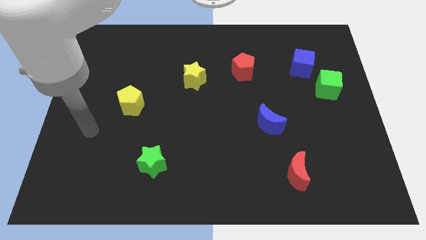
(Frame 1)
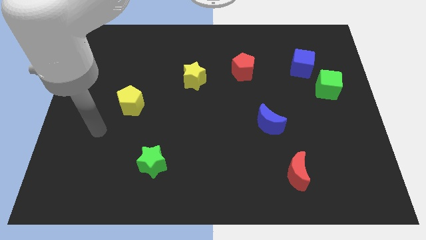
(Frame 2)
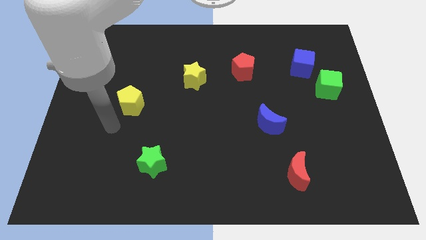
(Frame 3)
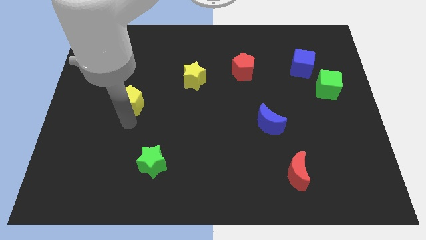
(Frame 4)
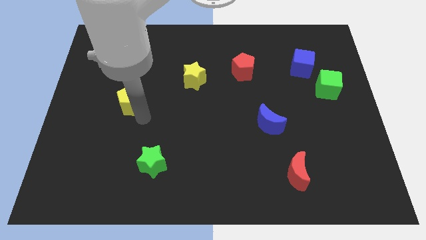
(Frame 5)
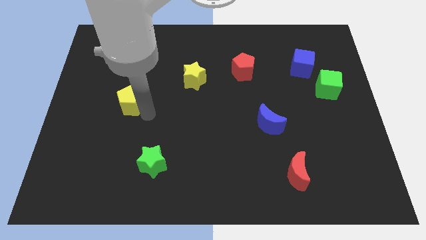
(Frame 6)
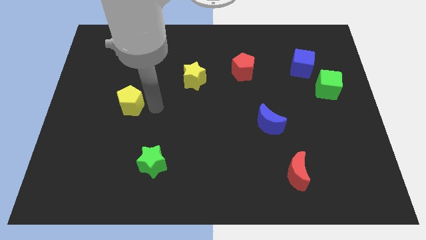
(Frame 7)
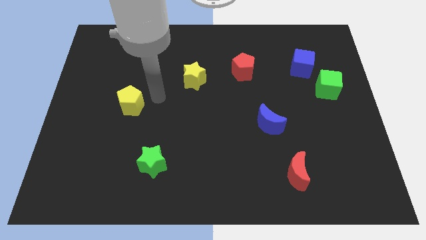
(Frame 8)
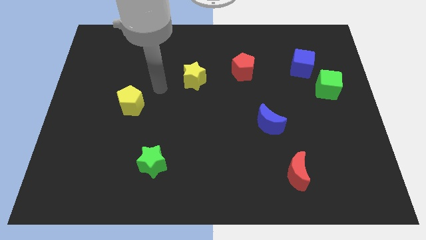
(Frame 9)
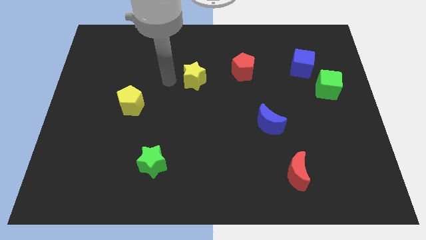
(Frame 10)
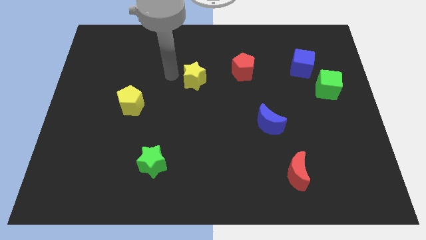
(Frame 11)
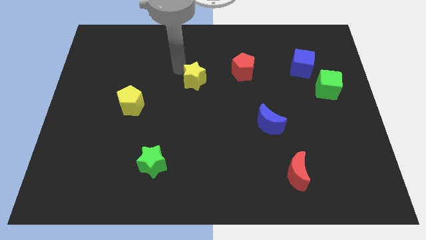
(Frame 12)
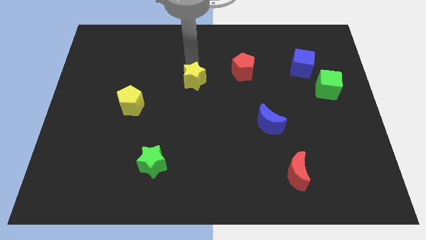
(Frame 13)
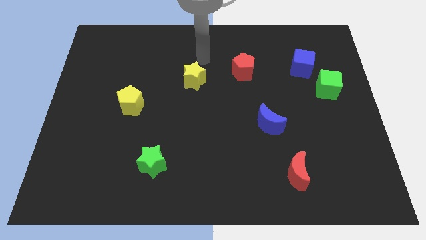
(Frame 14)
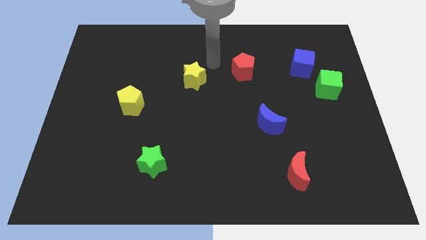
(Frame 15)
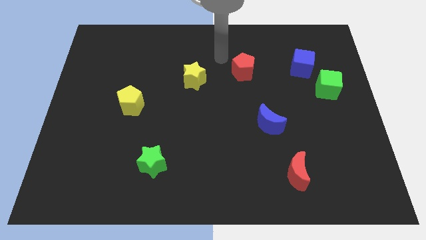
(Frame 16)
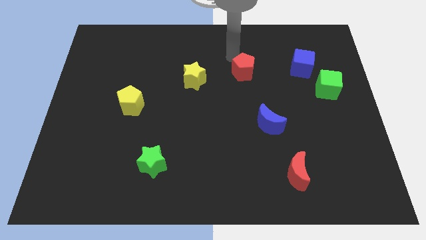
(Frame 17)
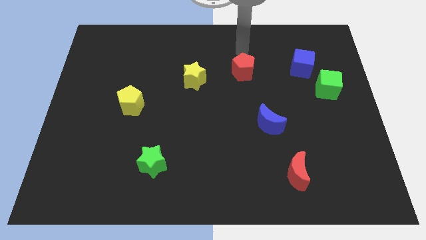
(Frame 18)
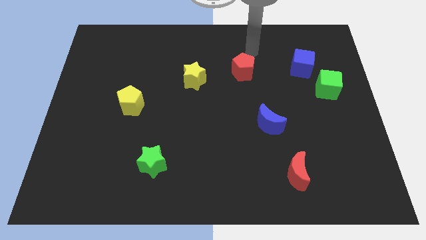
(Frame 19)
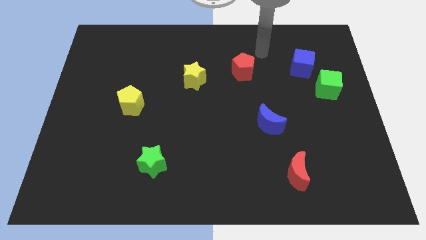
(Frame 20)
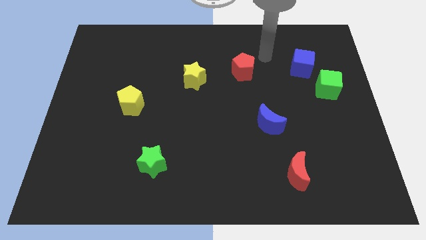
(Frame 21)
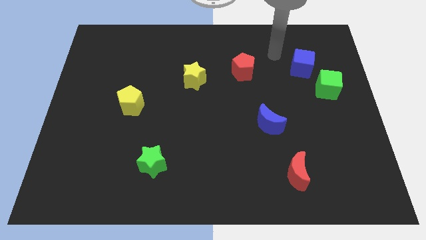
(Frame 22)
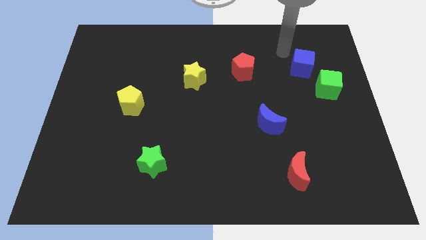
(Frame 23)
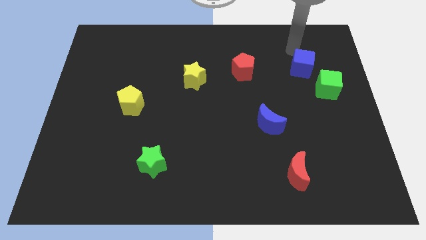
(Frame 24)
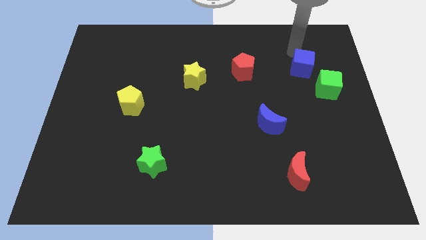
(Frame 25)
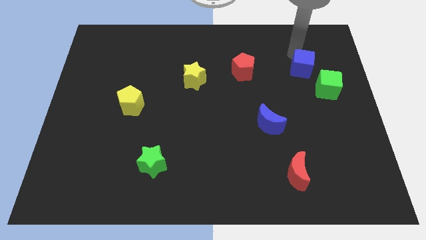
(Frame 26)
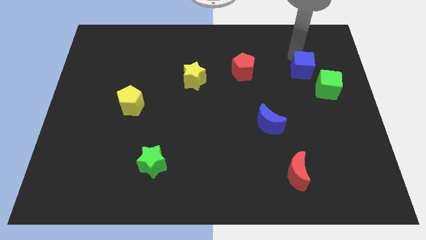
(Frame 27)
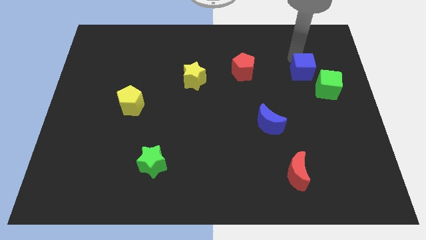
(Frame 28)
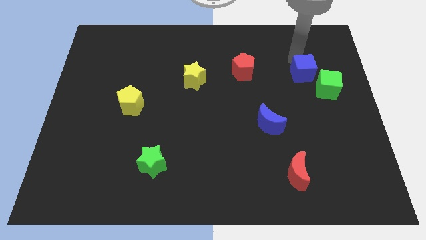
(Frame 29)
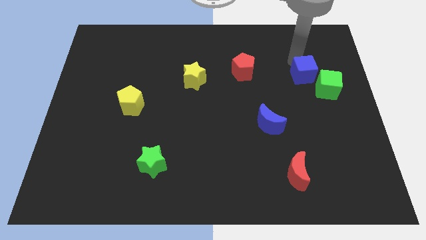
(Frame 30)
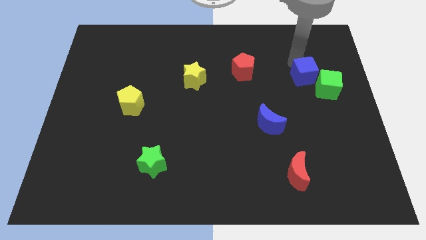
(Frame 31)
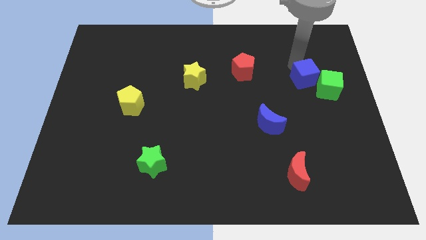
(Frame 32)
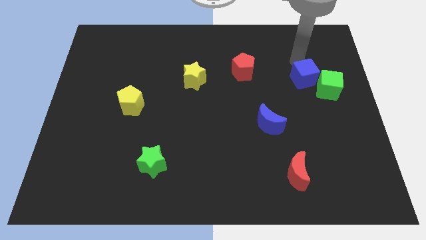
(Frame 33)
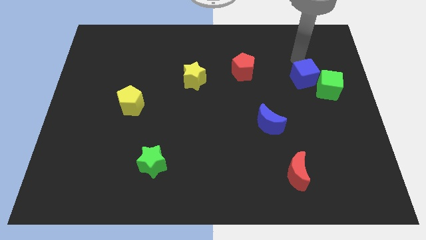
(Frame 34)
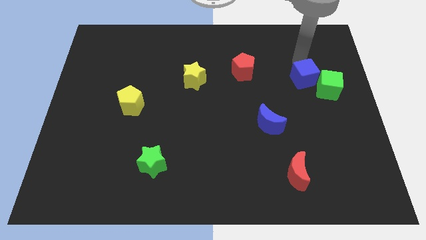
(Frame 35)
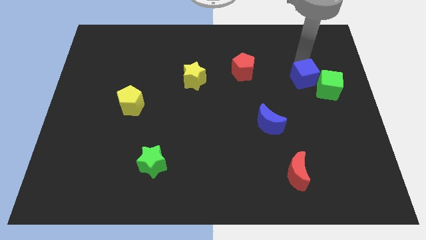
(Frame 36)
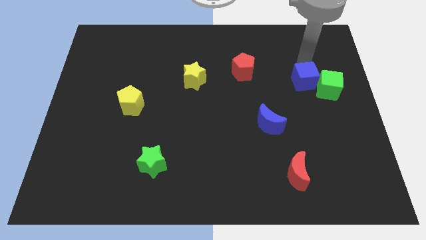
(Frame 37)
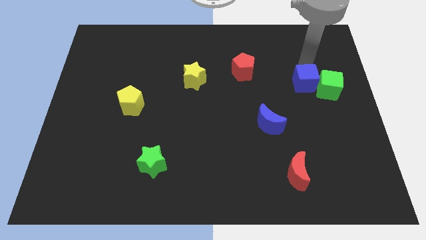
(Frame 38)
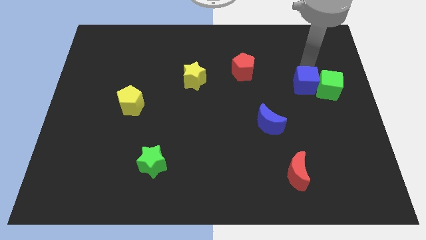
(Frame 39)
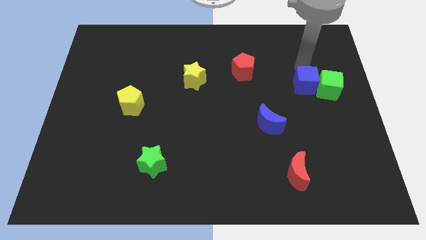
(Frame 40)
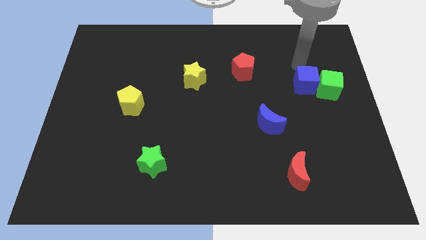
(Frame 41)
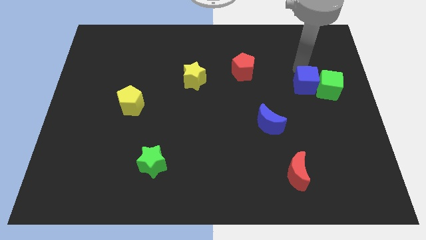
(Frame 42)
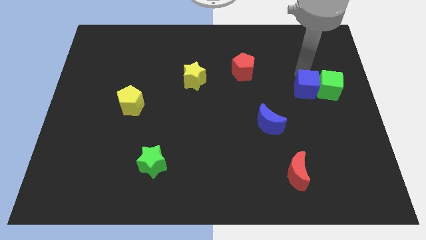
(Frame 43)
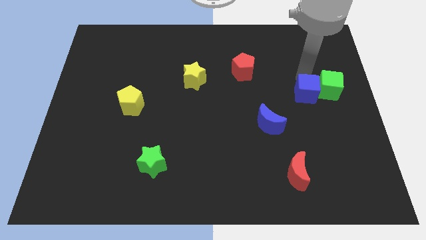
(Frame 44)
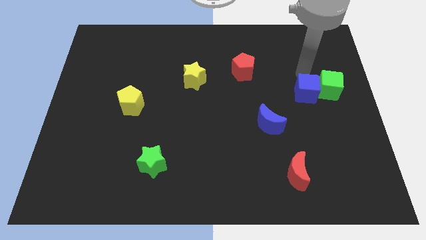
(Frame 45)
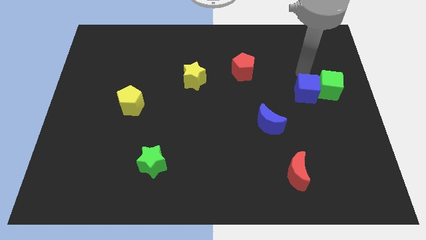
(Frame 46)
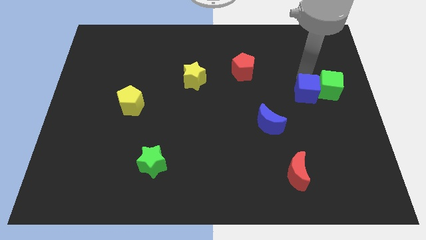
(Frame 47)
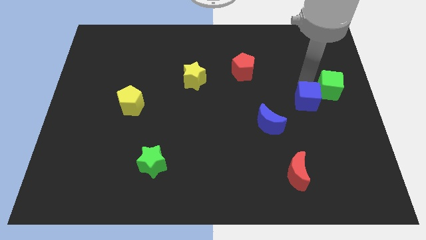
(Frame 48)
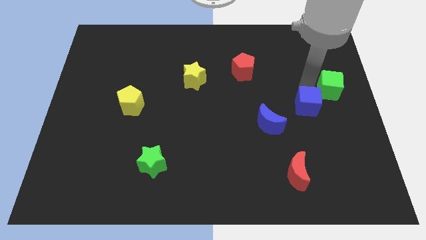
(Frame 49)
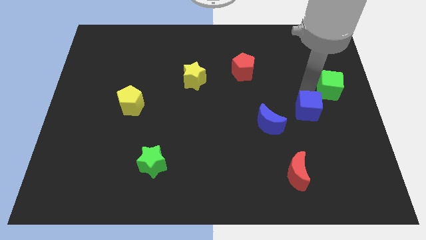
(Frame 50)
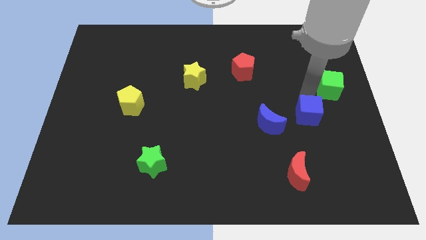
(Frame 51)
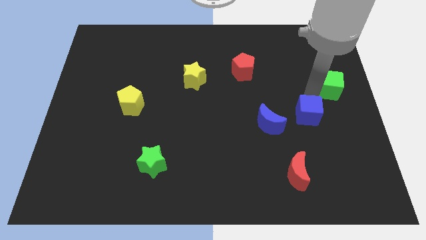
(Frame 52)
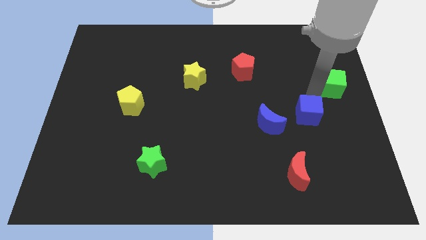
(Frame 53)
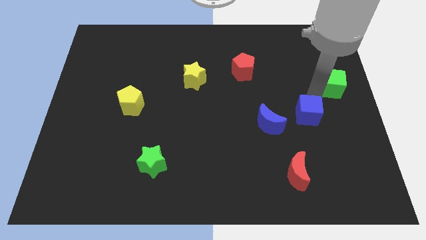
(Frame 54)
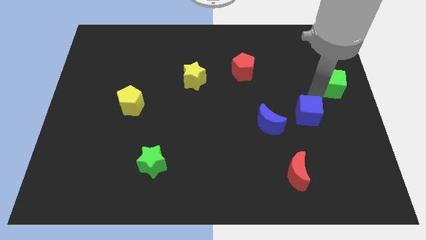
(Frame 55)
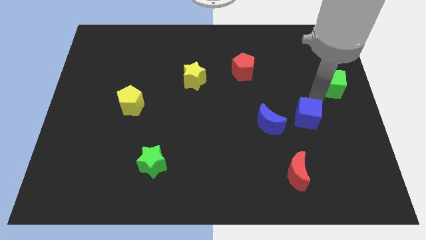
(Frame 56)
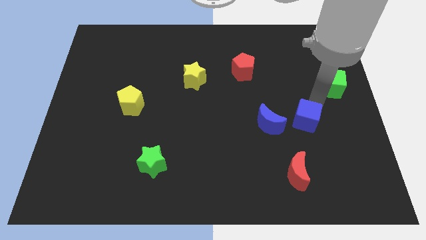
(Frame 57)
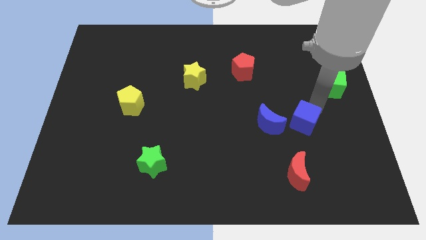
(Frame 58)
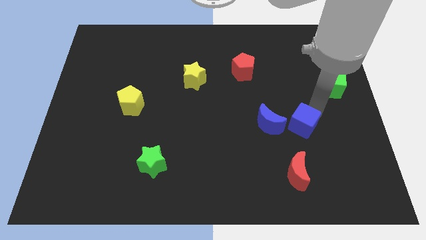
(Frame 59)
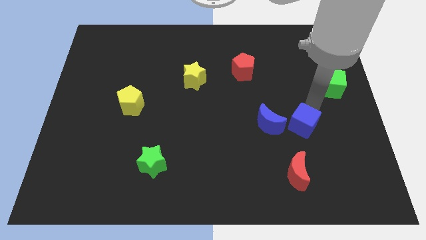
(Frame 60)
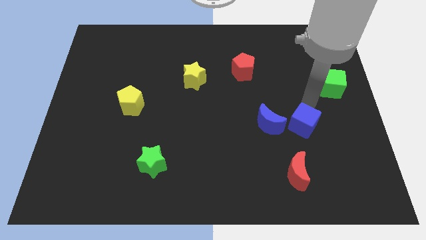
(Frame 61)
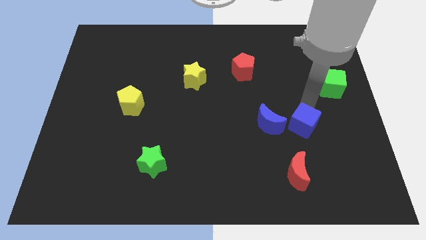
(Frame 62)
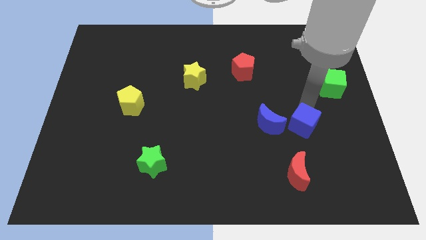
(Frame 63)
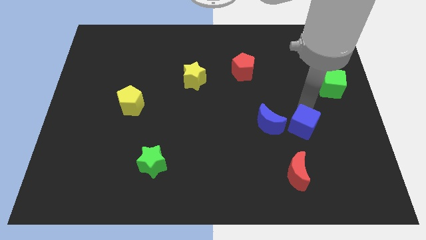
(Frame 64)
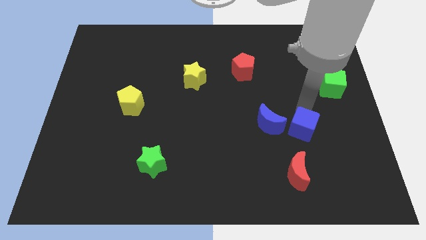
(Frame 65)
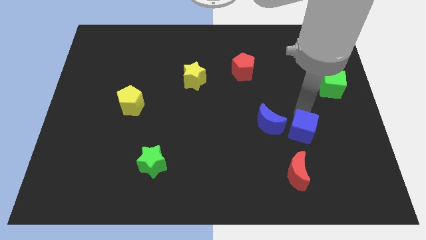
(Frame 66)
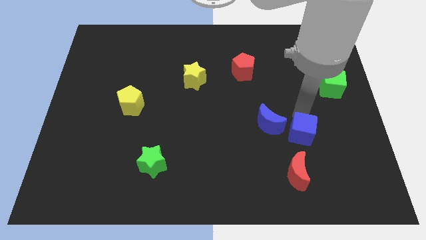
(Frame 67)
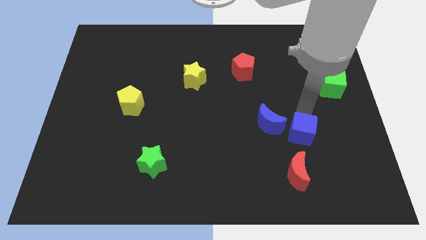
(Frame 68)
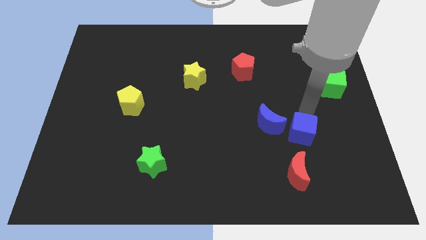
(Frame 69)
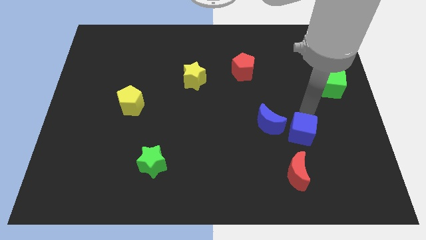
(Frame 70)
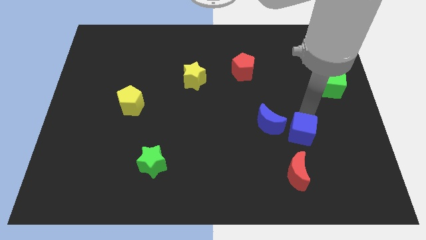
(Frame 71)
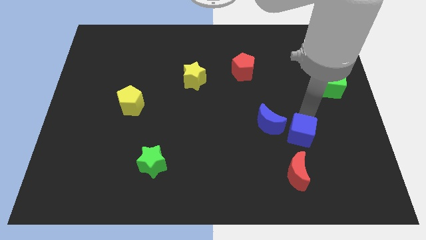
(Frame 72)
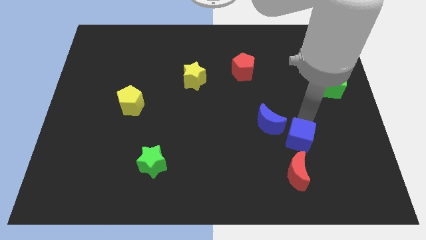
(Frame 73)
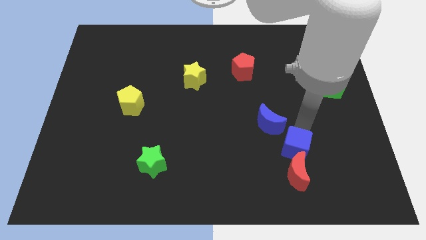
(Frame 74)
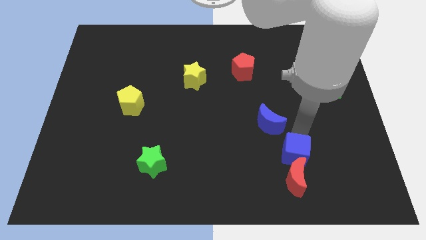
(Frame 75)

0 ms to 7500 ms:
put the blue cube towards the red moon
